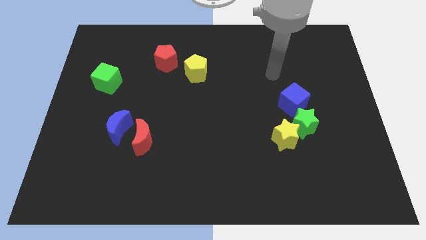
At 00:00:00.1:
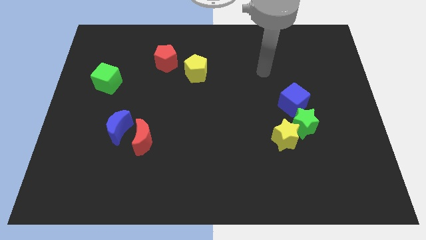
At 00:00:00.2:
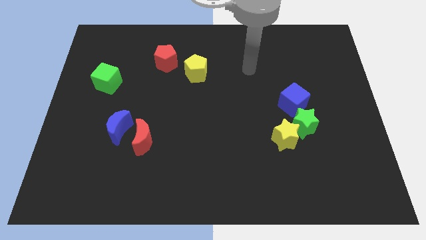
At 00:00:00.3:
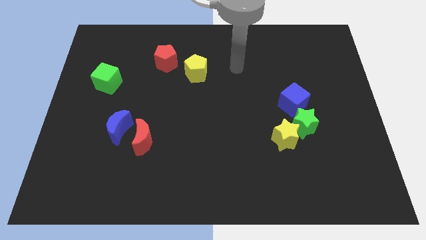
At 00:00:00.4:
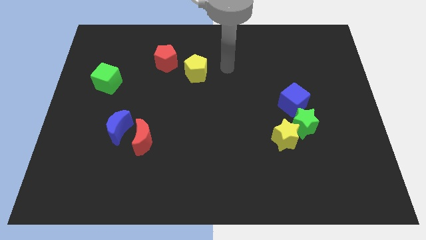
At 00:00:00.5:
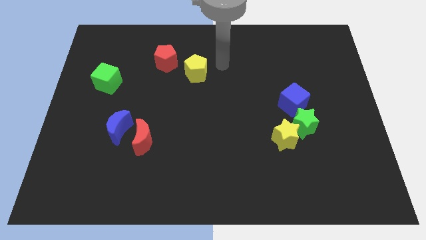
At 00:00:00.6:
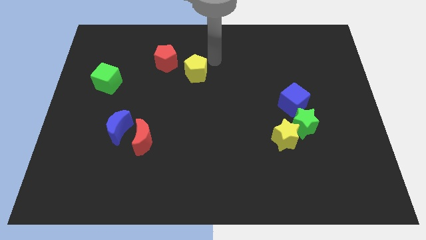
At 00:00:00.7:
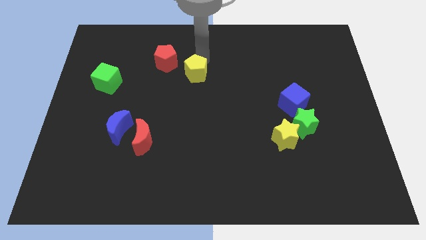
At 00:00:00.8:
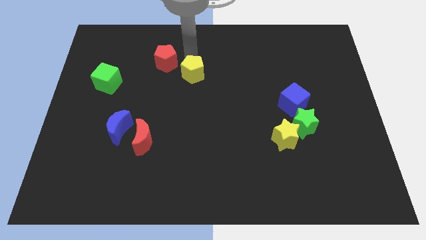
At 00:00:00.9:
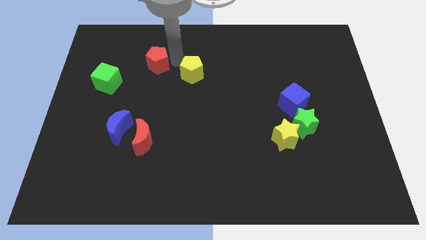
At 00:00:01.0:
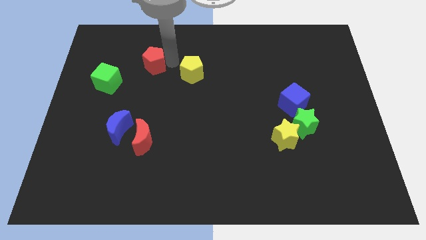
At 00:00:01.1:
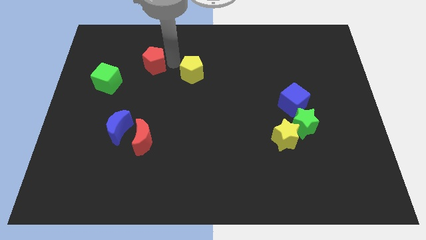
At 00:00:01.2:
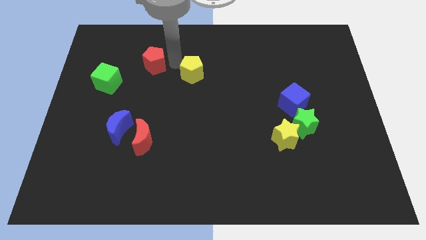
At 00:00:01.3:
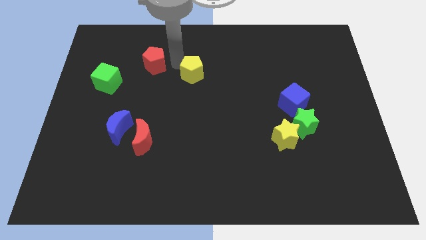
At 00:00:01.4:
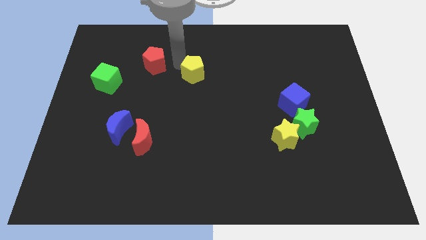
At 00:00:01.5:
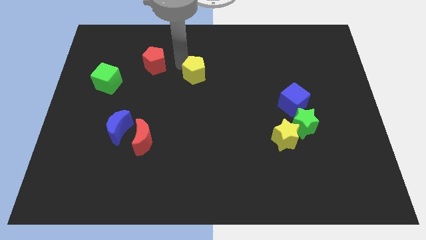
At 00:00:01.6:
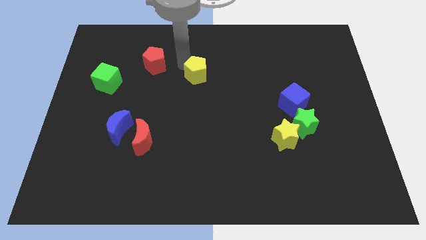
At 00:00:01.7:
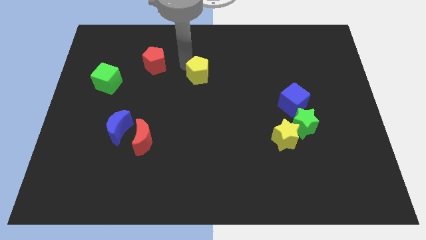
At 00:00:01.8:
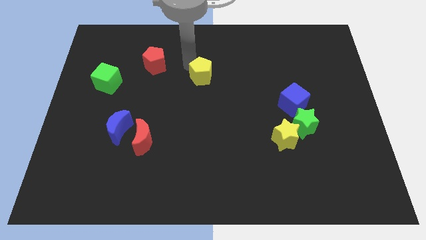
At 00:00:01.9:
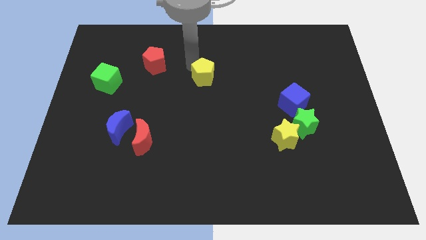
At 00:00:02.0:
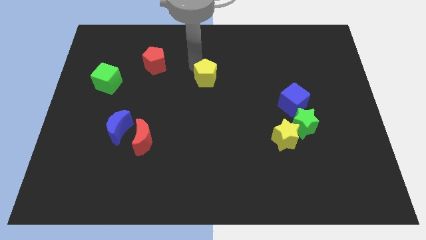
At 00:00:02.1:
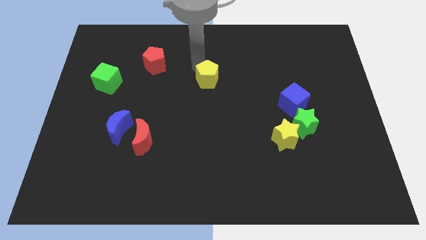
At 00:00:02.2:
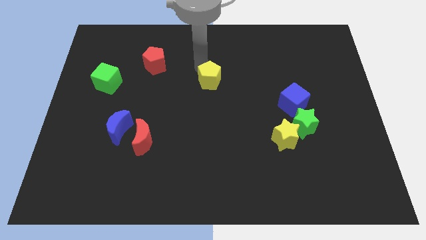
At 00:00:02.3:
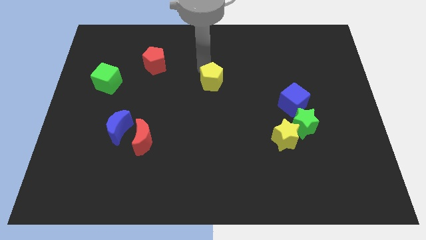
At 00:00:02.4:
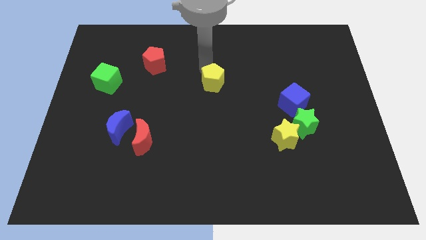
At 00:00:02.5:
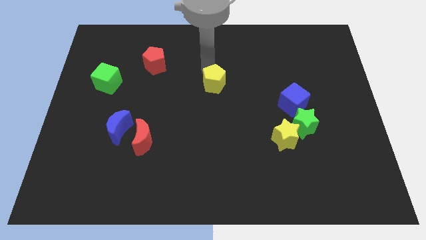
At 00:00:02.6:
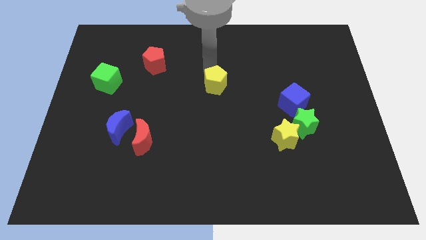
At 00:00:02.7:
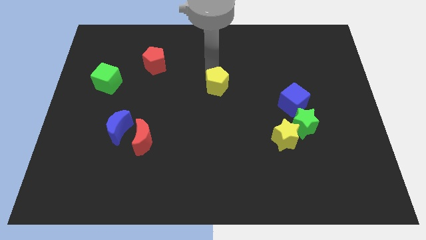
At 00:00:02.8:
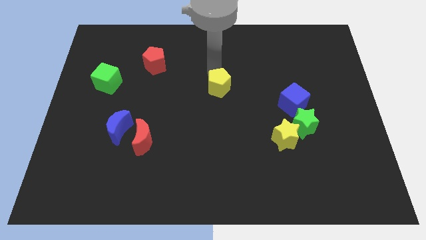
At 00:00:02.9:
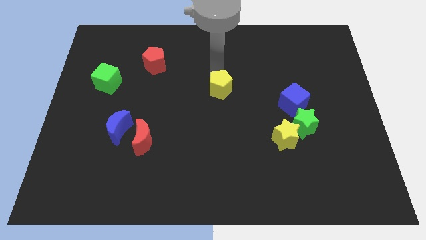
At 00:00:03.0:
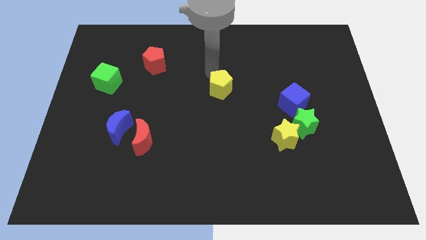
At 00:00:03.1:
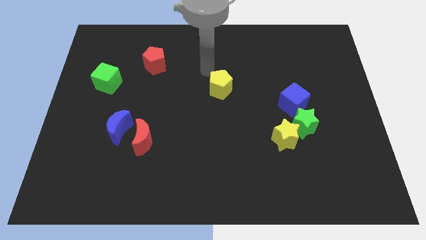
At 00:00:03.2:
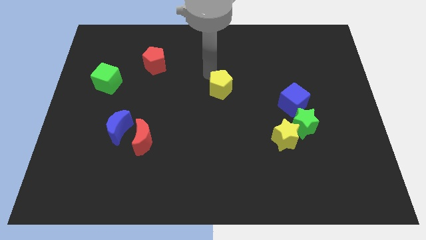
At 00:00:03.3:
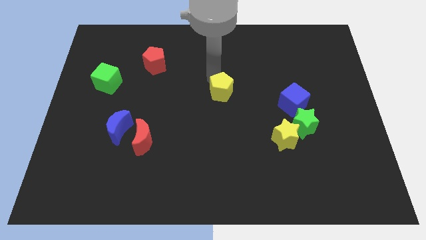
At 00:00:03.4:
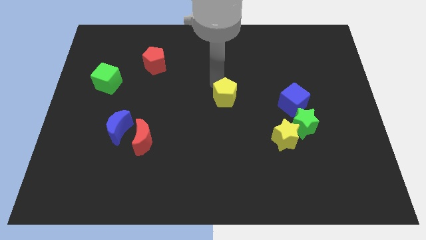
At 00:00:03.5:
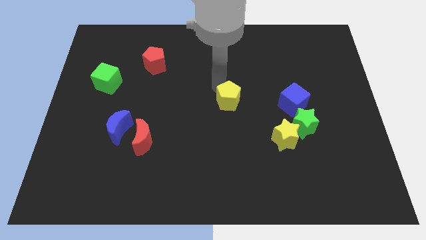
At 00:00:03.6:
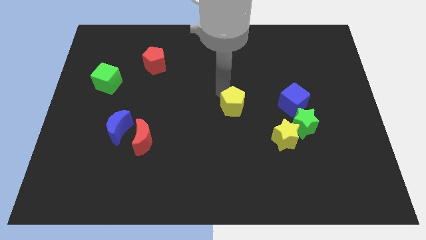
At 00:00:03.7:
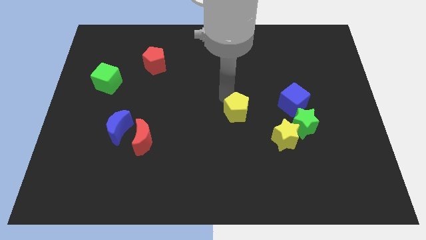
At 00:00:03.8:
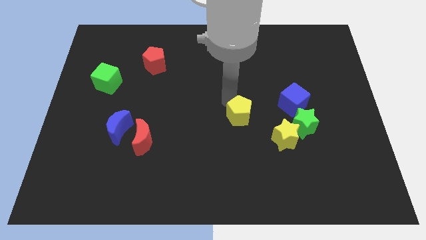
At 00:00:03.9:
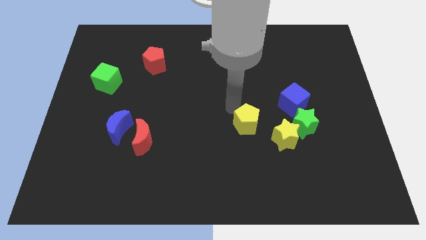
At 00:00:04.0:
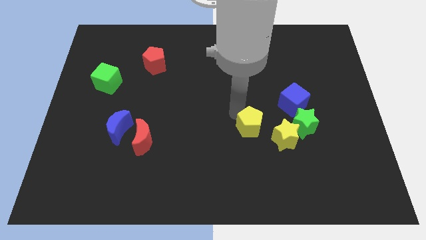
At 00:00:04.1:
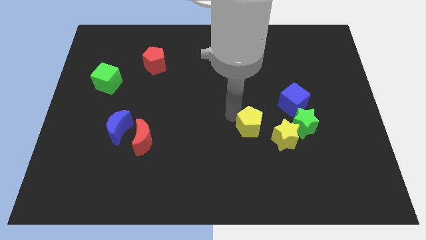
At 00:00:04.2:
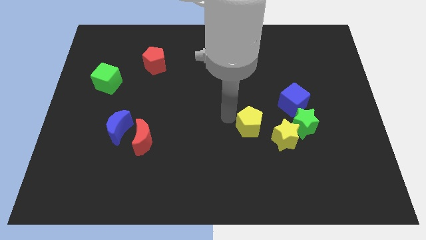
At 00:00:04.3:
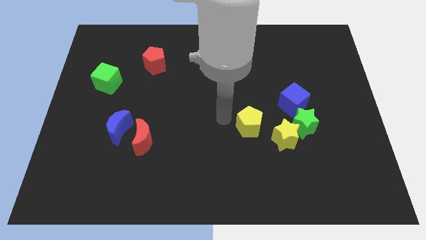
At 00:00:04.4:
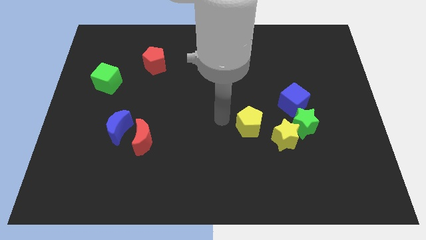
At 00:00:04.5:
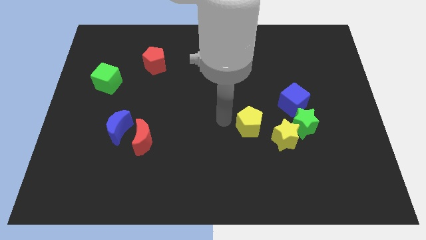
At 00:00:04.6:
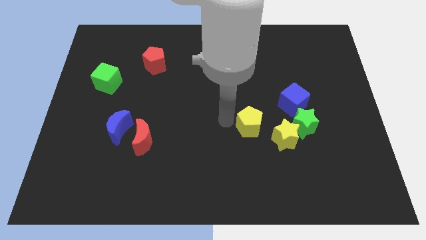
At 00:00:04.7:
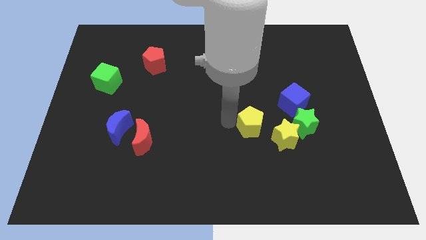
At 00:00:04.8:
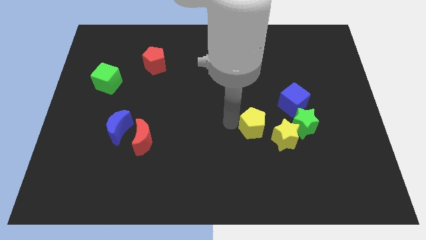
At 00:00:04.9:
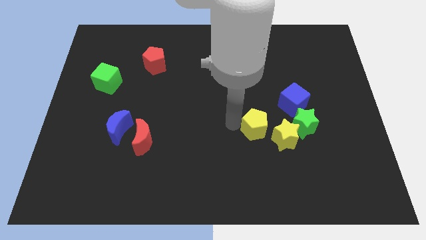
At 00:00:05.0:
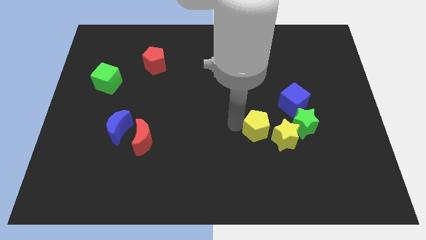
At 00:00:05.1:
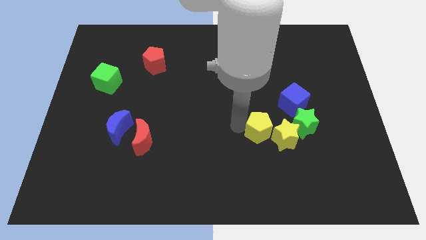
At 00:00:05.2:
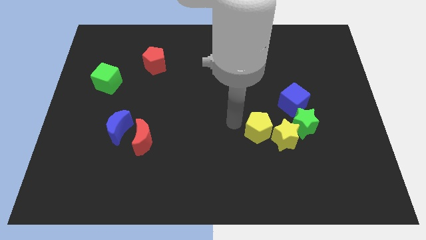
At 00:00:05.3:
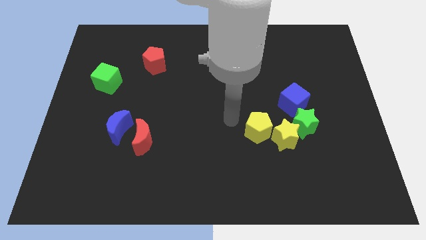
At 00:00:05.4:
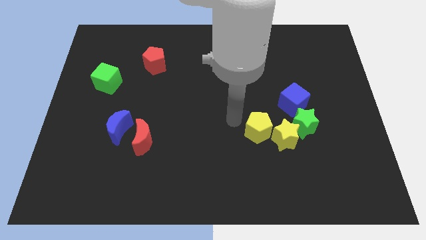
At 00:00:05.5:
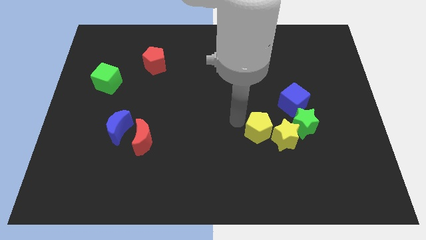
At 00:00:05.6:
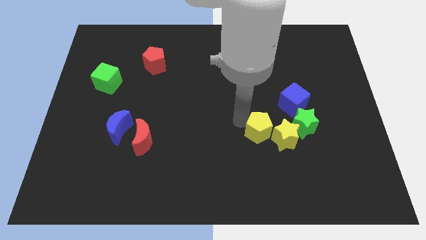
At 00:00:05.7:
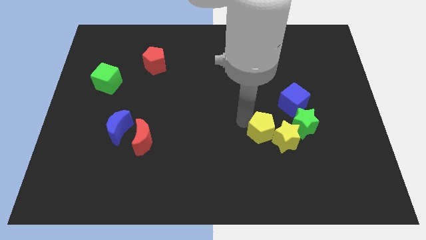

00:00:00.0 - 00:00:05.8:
move the yellow pentagon next to the yellow star

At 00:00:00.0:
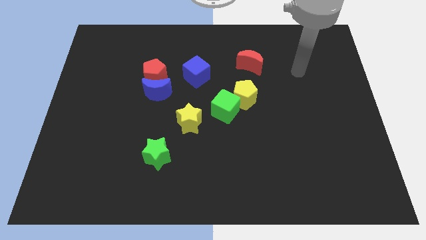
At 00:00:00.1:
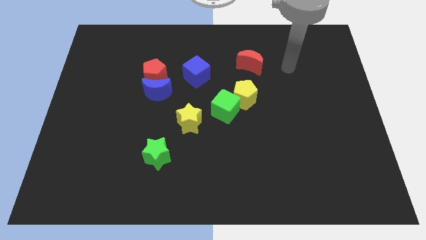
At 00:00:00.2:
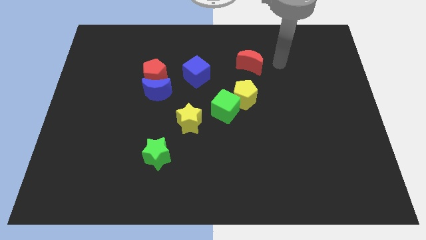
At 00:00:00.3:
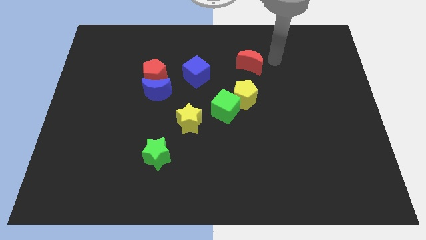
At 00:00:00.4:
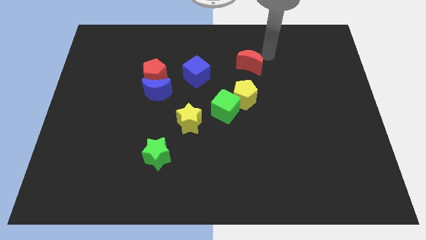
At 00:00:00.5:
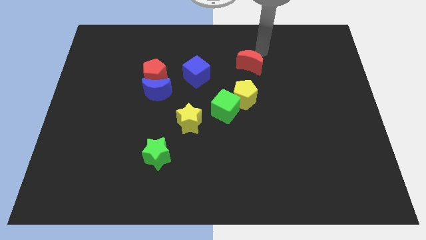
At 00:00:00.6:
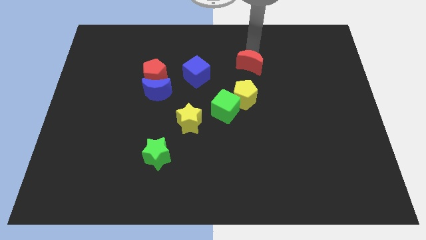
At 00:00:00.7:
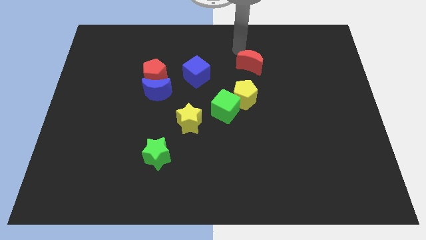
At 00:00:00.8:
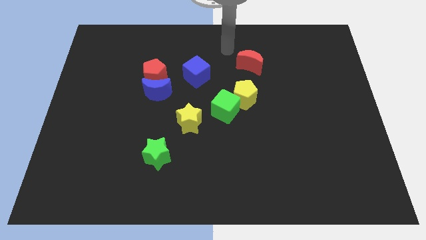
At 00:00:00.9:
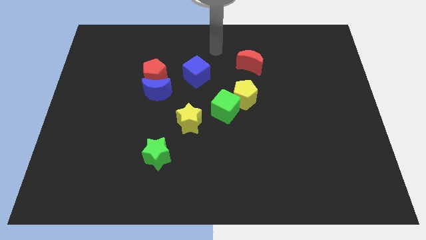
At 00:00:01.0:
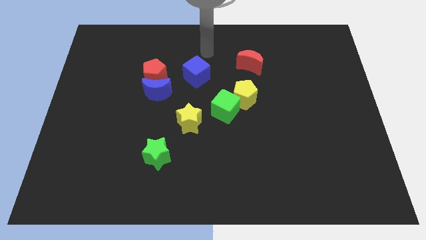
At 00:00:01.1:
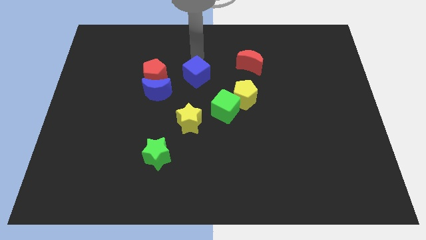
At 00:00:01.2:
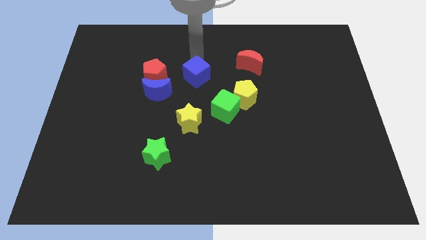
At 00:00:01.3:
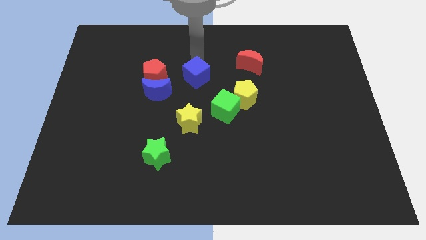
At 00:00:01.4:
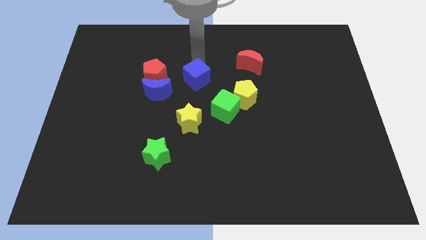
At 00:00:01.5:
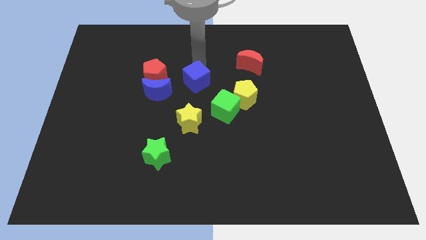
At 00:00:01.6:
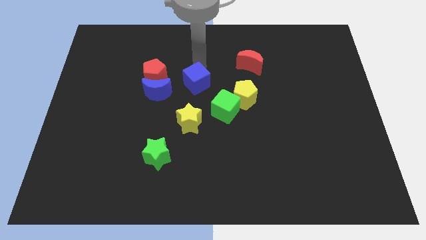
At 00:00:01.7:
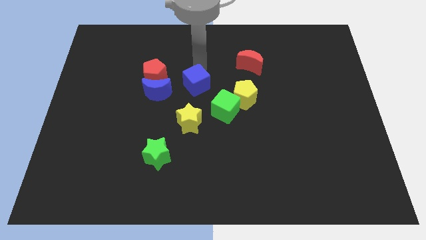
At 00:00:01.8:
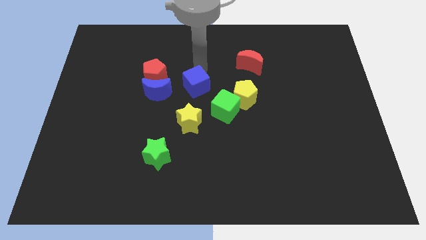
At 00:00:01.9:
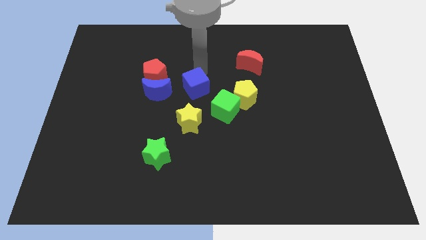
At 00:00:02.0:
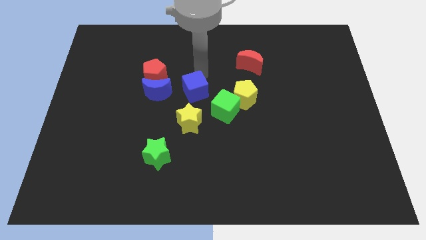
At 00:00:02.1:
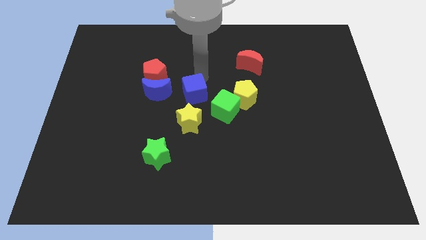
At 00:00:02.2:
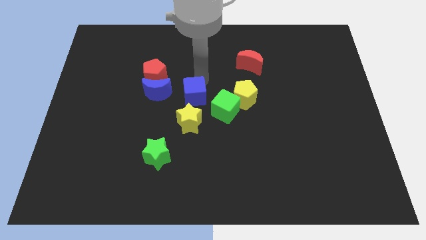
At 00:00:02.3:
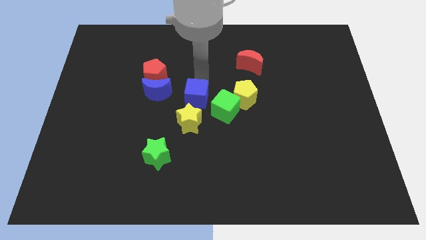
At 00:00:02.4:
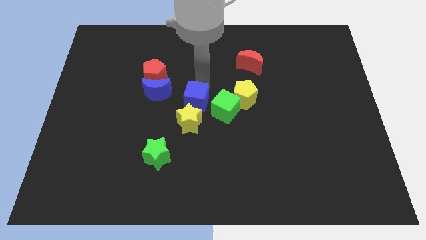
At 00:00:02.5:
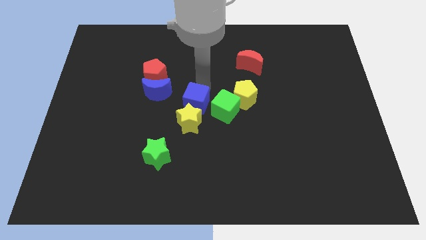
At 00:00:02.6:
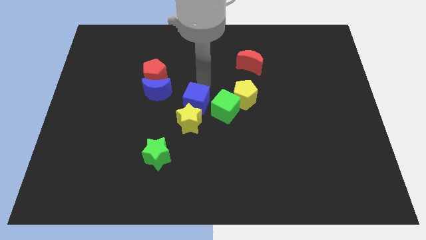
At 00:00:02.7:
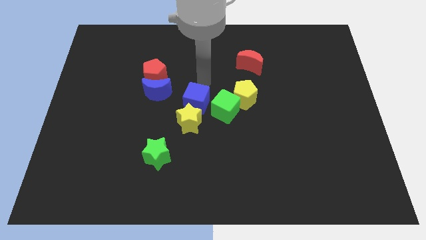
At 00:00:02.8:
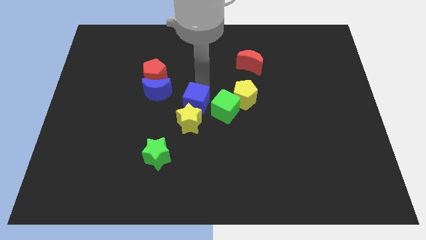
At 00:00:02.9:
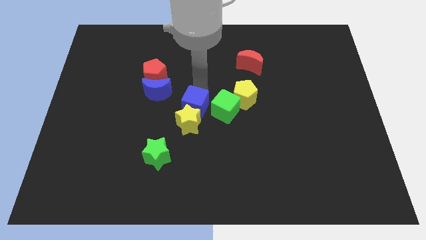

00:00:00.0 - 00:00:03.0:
move the blue cube next to the yellow star
